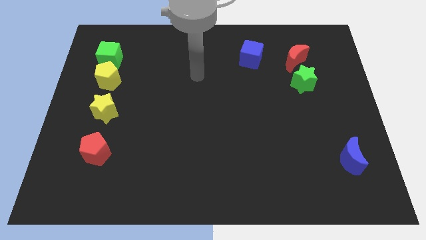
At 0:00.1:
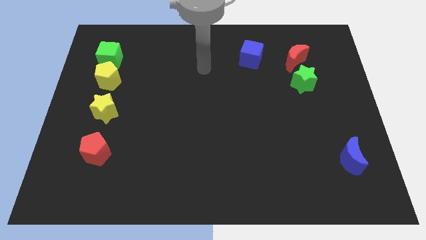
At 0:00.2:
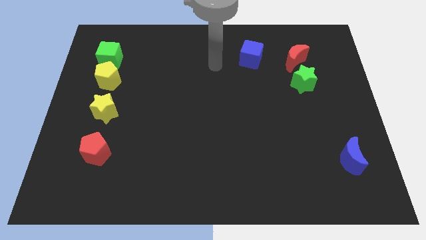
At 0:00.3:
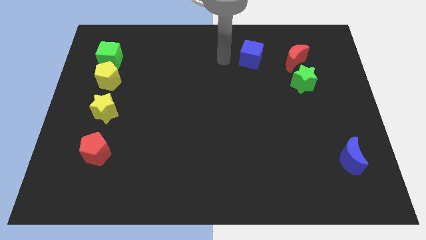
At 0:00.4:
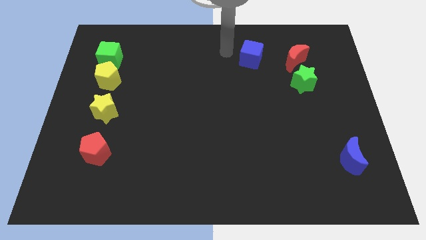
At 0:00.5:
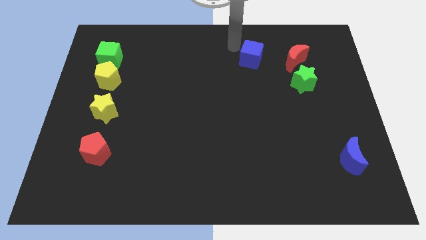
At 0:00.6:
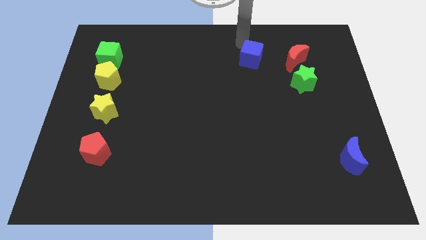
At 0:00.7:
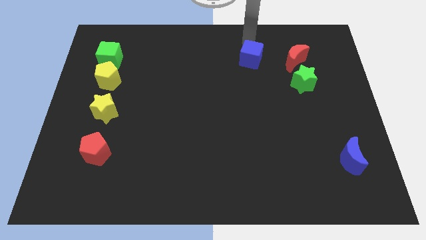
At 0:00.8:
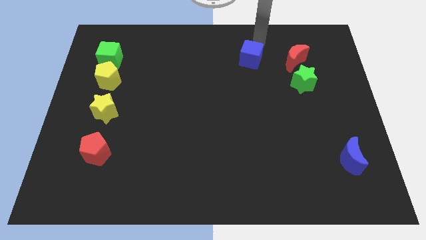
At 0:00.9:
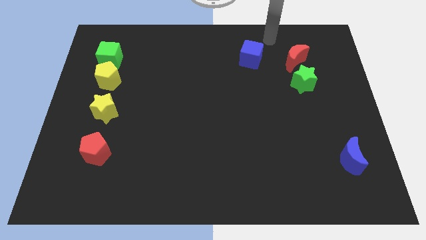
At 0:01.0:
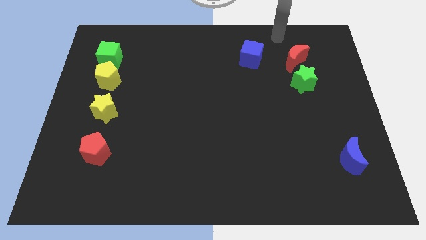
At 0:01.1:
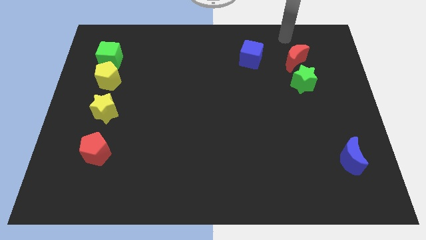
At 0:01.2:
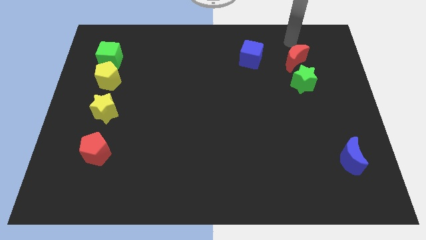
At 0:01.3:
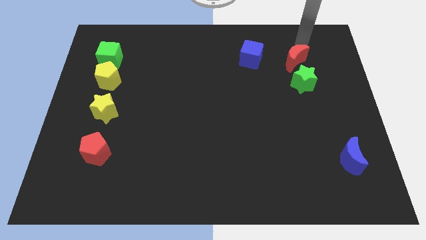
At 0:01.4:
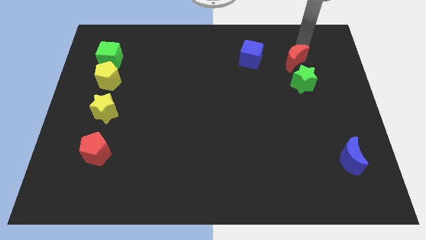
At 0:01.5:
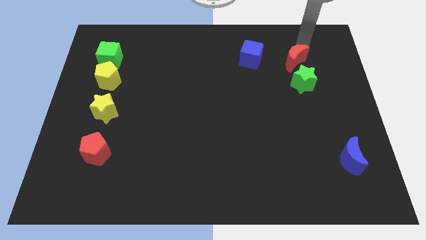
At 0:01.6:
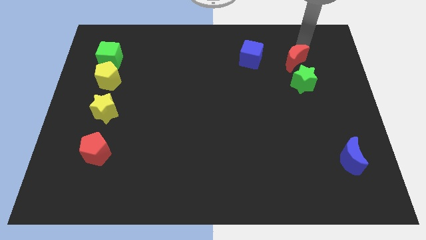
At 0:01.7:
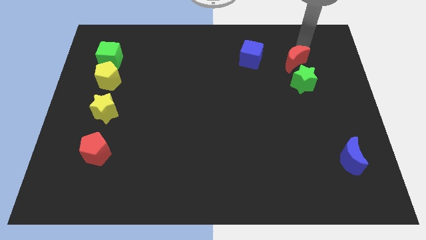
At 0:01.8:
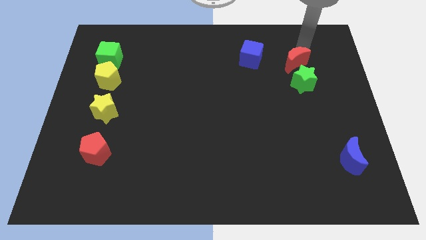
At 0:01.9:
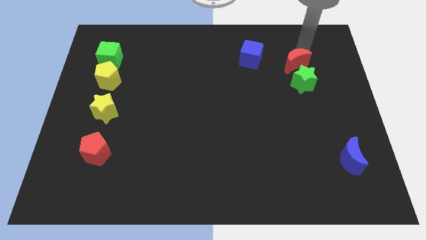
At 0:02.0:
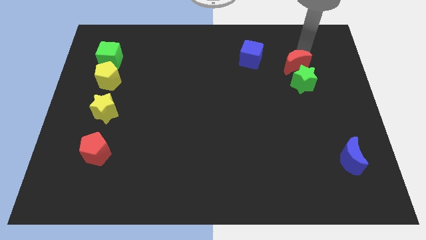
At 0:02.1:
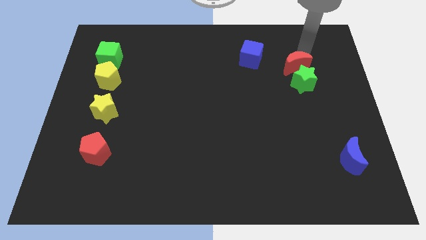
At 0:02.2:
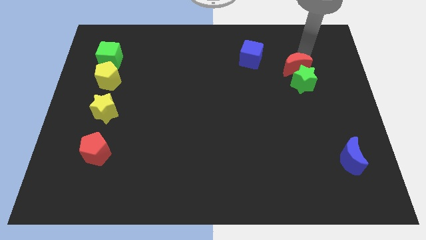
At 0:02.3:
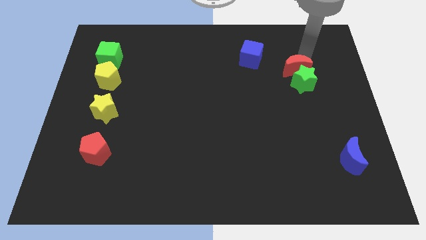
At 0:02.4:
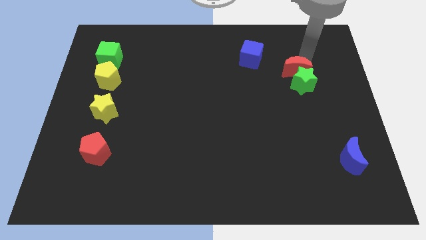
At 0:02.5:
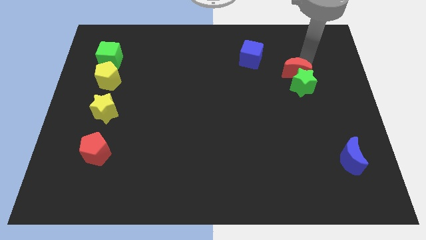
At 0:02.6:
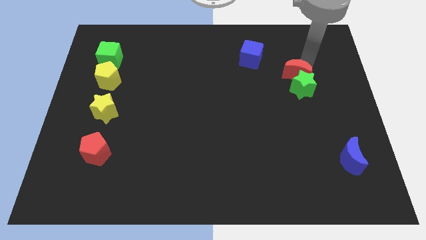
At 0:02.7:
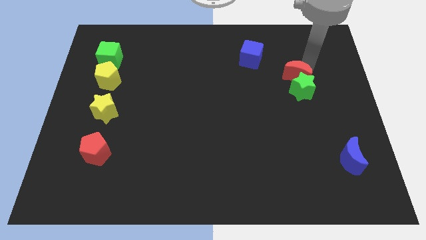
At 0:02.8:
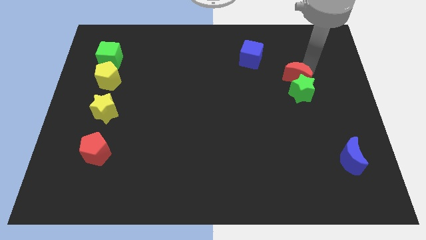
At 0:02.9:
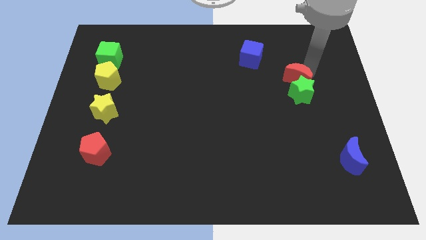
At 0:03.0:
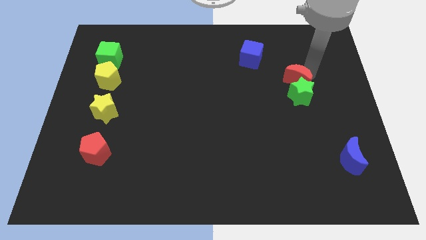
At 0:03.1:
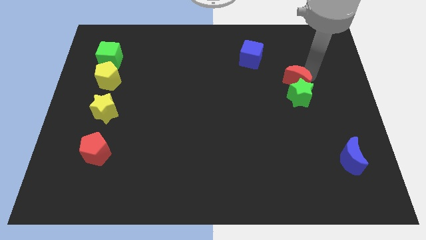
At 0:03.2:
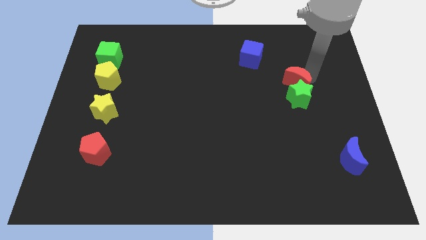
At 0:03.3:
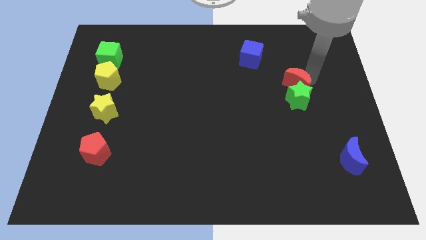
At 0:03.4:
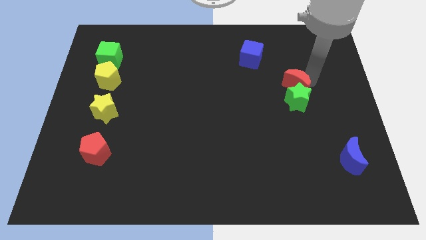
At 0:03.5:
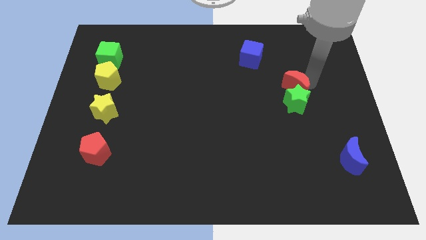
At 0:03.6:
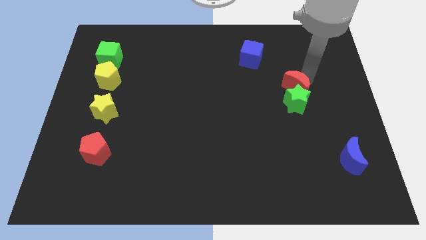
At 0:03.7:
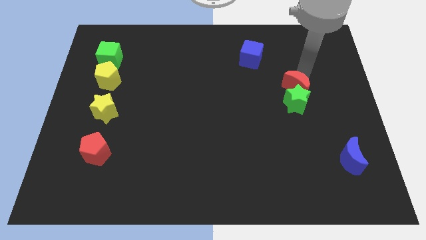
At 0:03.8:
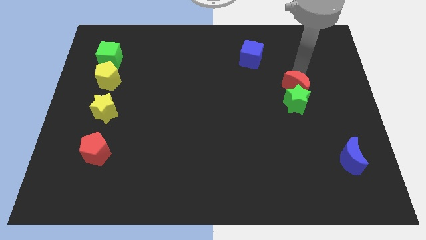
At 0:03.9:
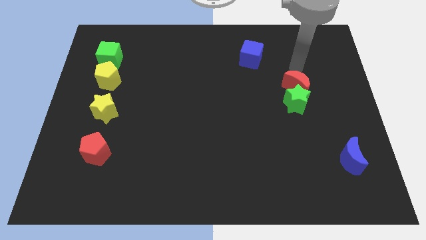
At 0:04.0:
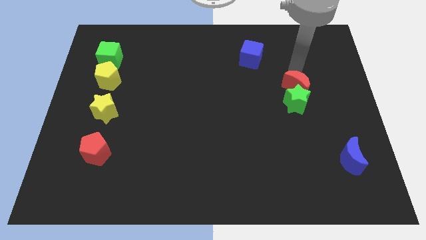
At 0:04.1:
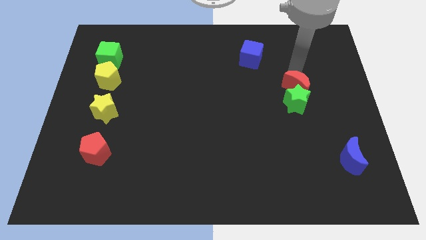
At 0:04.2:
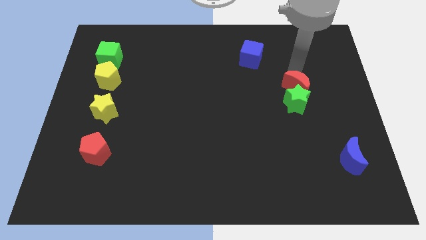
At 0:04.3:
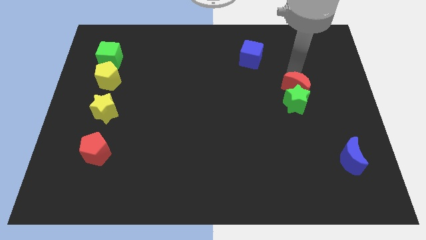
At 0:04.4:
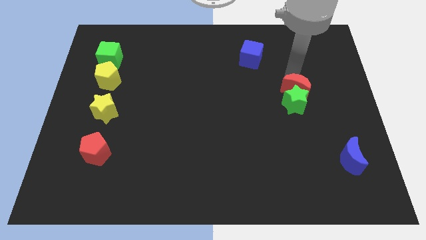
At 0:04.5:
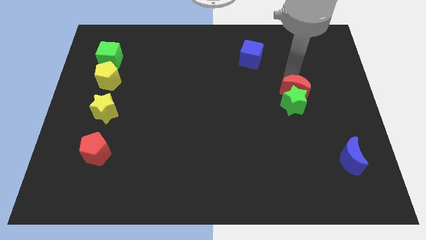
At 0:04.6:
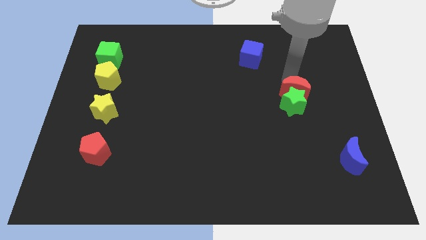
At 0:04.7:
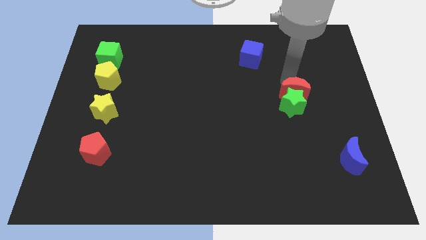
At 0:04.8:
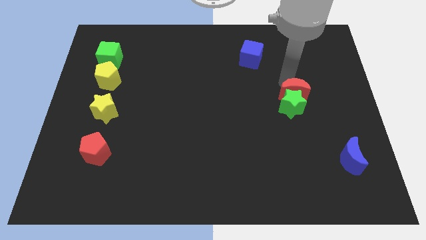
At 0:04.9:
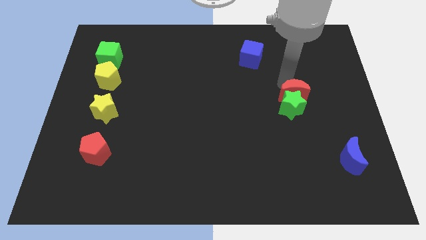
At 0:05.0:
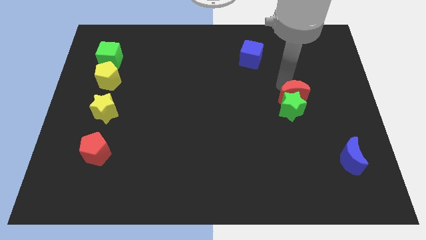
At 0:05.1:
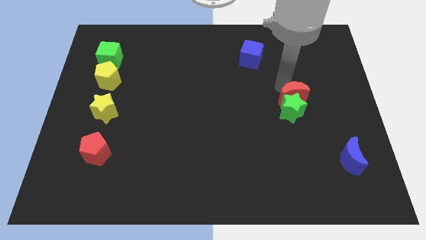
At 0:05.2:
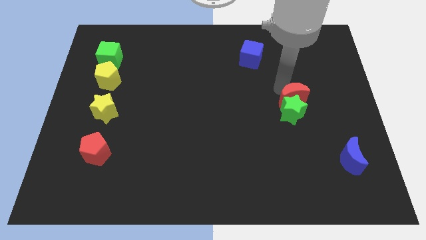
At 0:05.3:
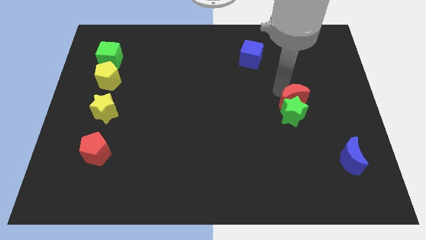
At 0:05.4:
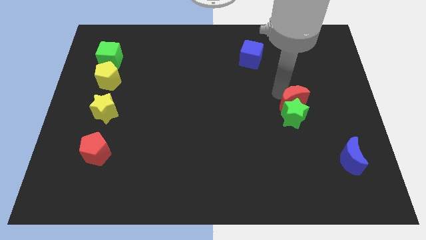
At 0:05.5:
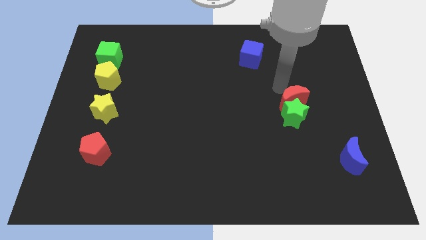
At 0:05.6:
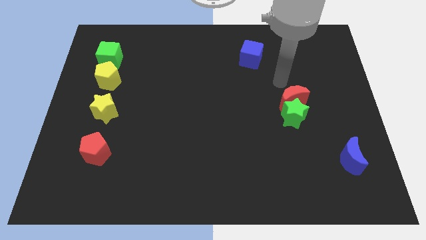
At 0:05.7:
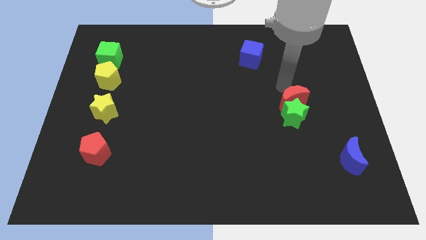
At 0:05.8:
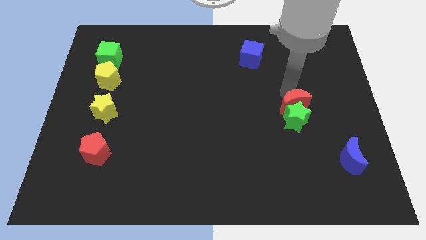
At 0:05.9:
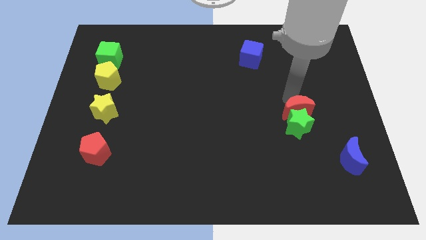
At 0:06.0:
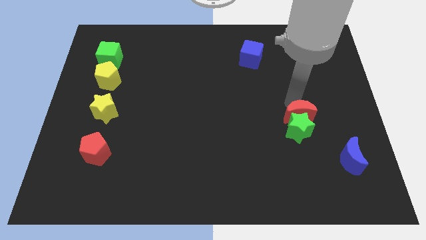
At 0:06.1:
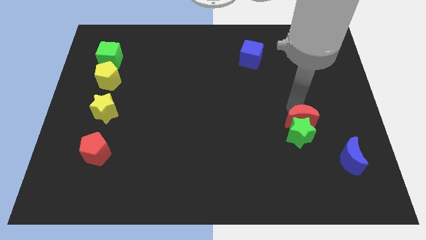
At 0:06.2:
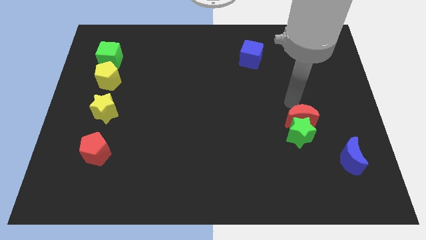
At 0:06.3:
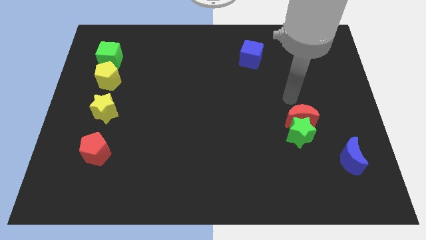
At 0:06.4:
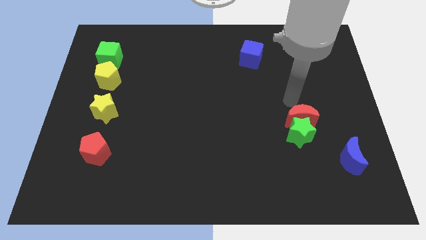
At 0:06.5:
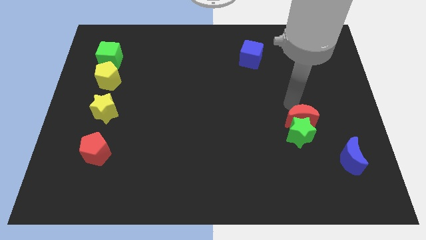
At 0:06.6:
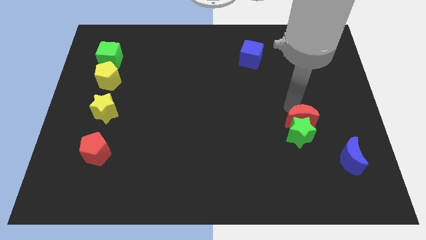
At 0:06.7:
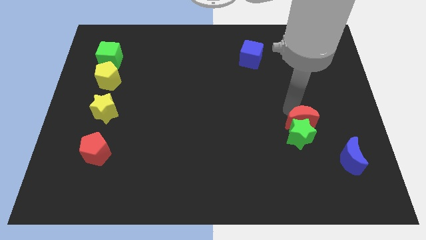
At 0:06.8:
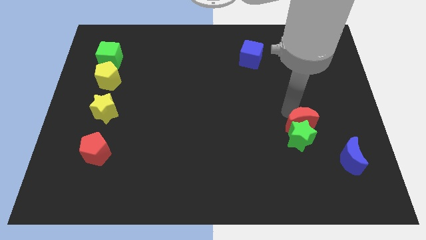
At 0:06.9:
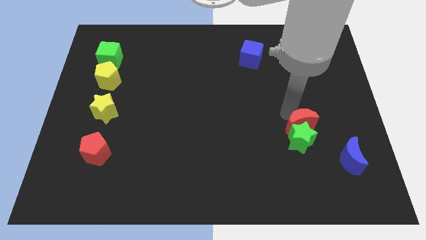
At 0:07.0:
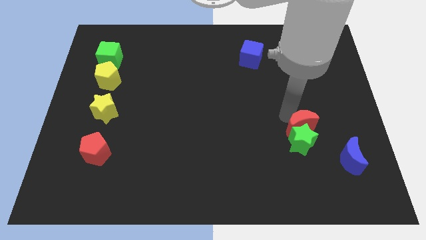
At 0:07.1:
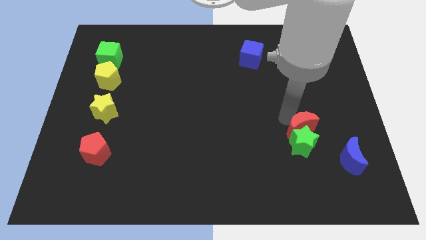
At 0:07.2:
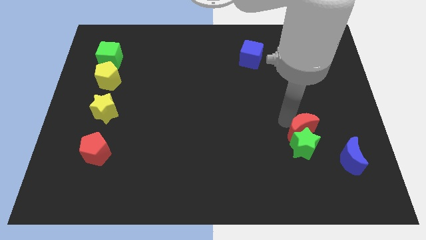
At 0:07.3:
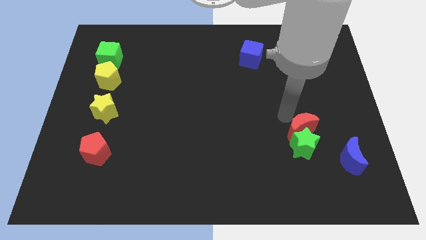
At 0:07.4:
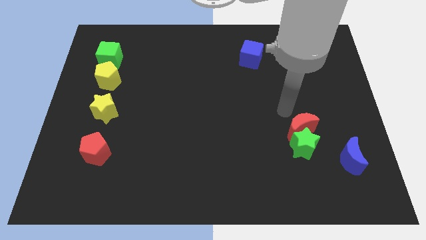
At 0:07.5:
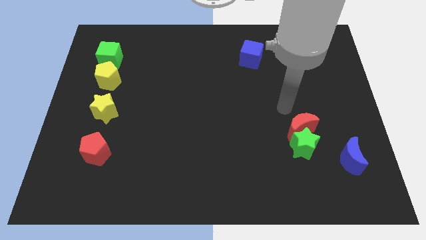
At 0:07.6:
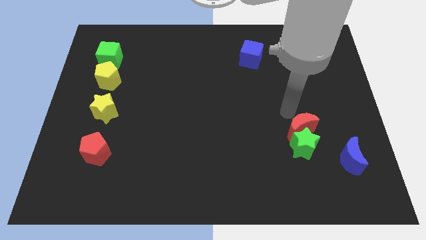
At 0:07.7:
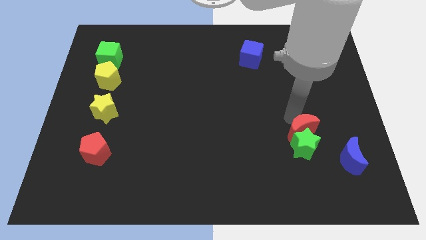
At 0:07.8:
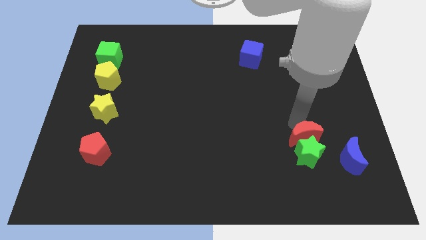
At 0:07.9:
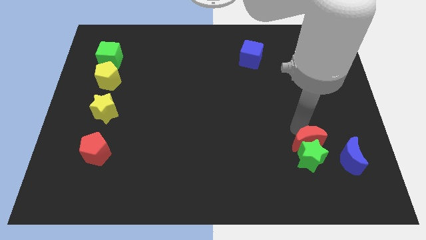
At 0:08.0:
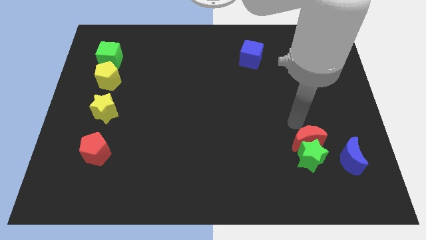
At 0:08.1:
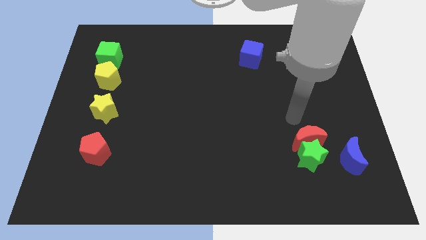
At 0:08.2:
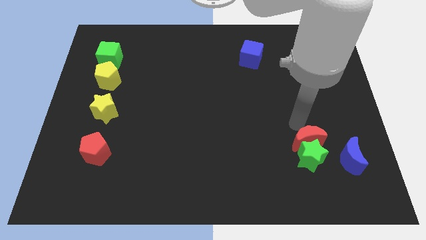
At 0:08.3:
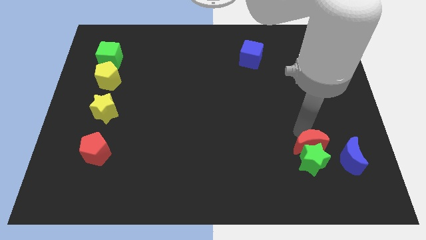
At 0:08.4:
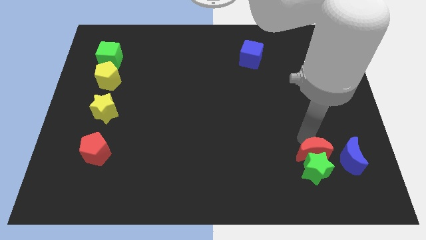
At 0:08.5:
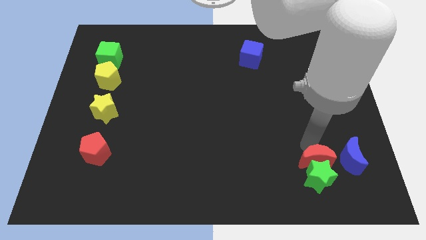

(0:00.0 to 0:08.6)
put the red moon to the bottom left side of the blue moon
